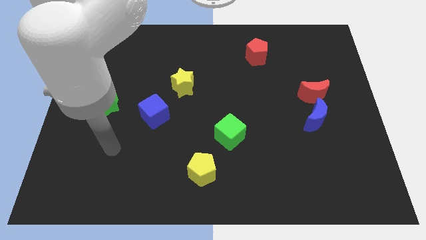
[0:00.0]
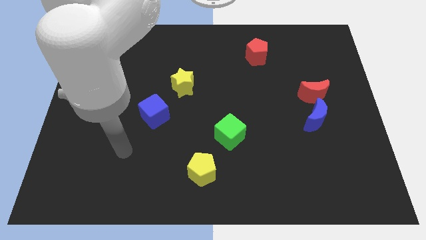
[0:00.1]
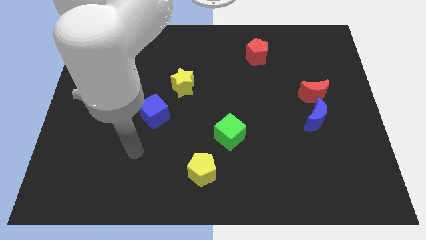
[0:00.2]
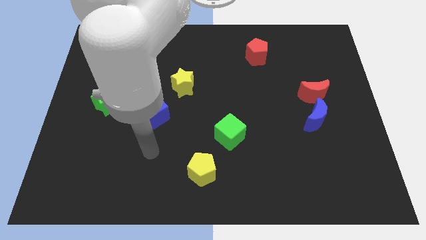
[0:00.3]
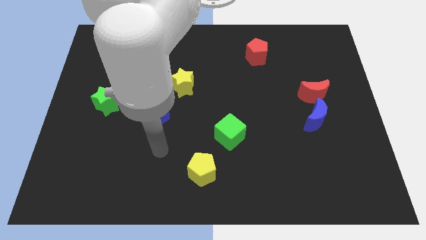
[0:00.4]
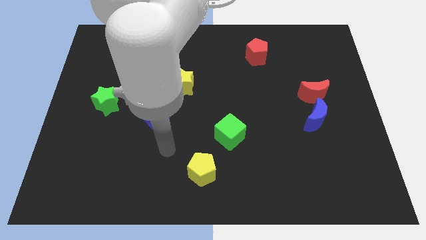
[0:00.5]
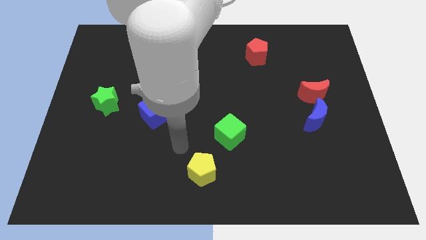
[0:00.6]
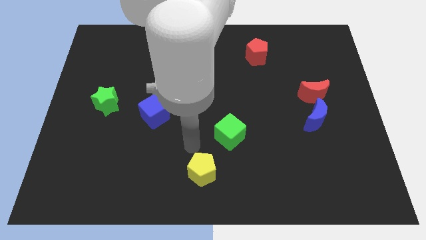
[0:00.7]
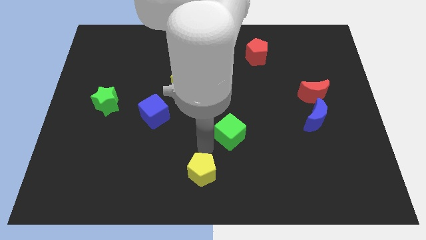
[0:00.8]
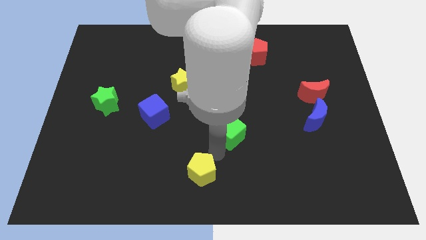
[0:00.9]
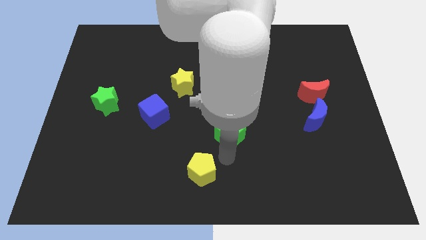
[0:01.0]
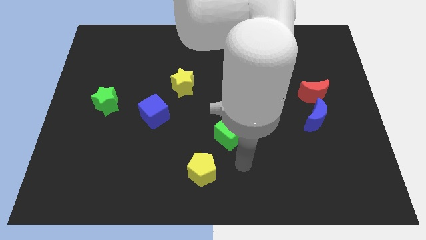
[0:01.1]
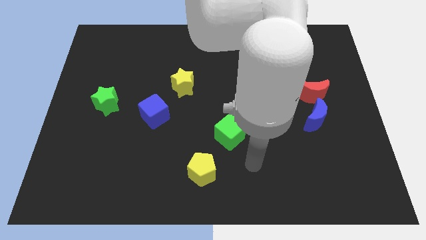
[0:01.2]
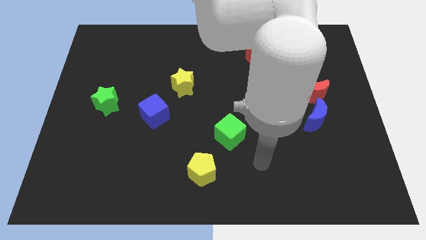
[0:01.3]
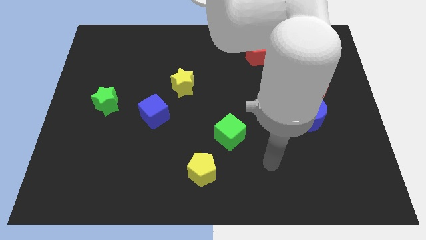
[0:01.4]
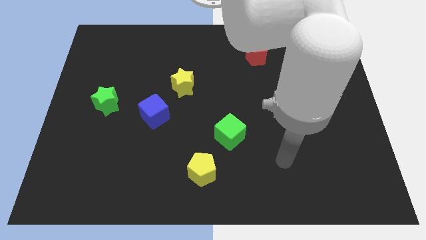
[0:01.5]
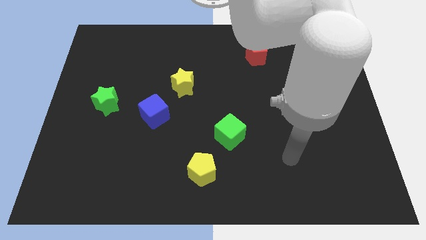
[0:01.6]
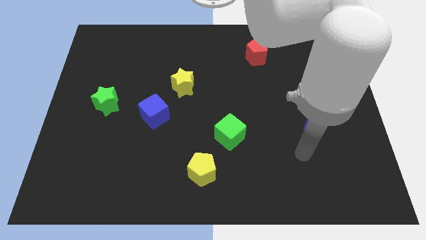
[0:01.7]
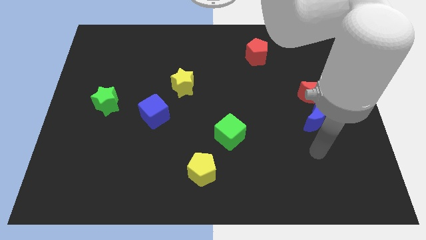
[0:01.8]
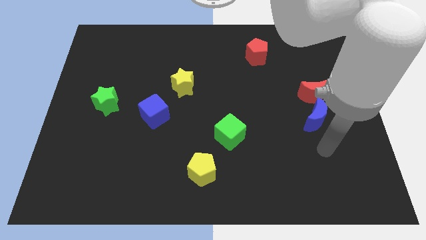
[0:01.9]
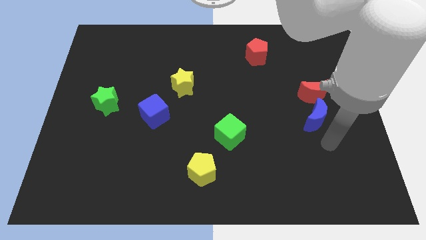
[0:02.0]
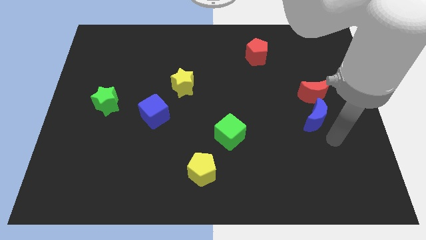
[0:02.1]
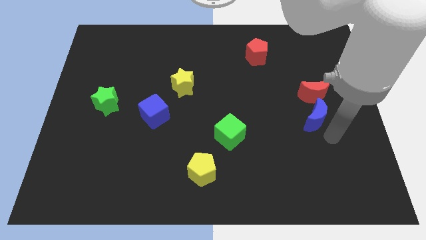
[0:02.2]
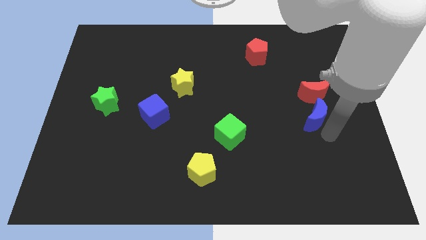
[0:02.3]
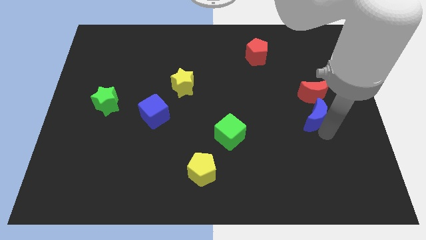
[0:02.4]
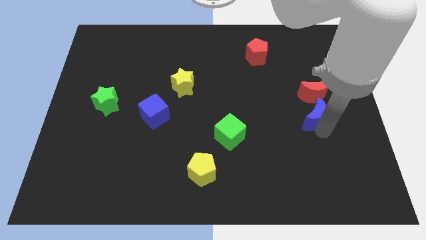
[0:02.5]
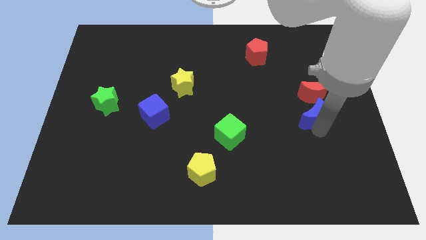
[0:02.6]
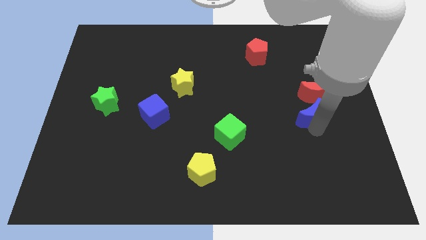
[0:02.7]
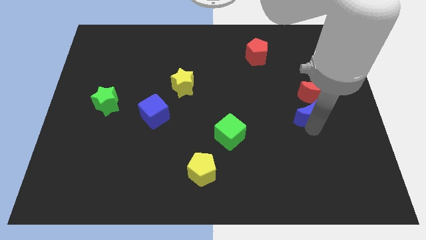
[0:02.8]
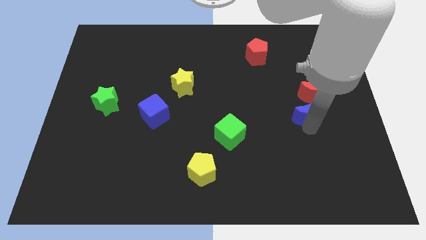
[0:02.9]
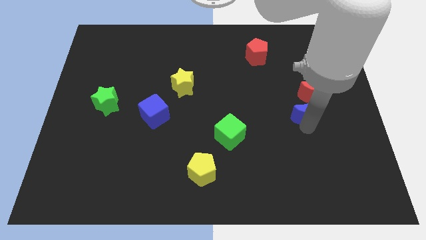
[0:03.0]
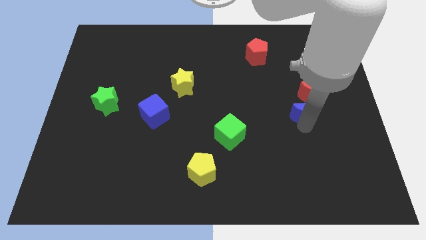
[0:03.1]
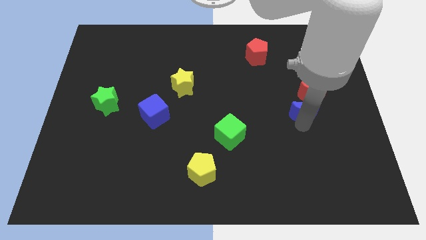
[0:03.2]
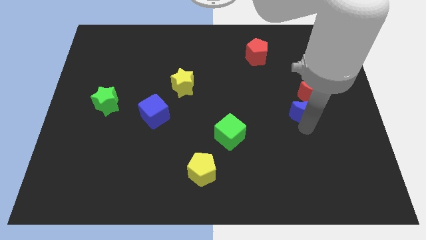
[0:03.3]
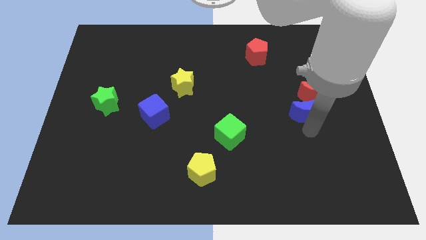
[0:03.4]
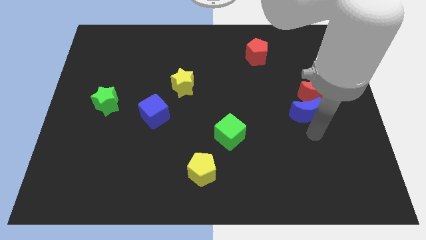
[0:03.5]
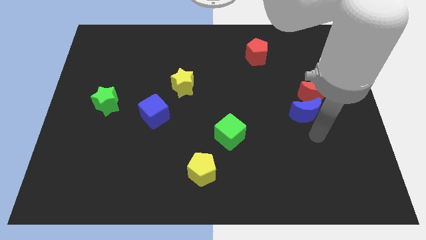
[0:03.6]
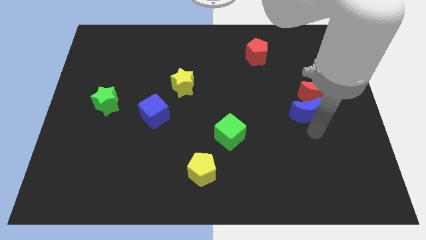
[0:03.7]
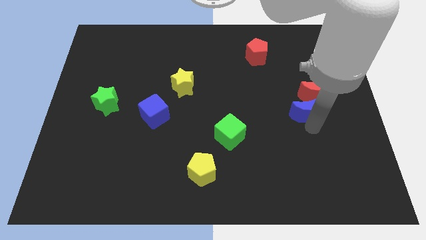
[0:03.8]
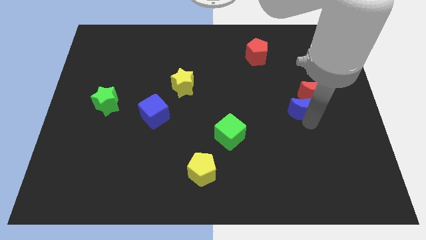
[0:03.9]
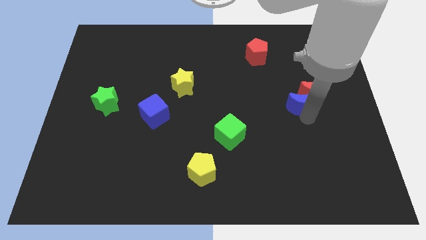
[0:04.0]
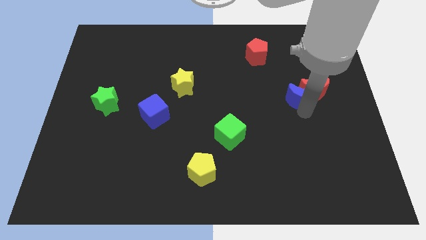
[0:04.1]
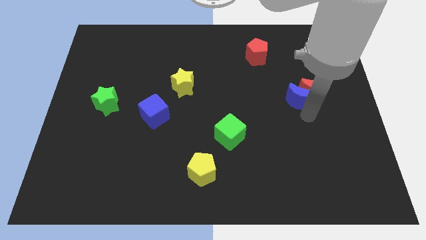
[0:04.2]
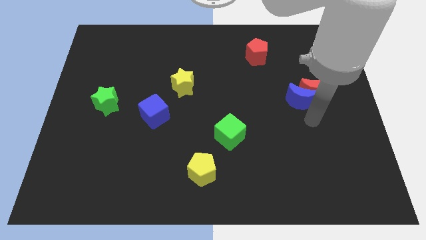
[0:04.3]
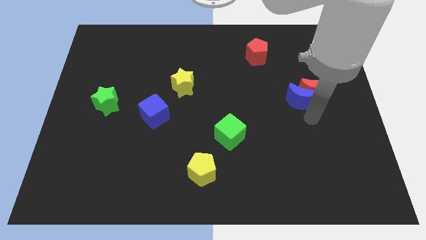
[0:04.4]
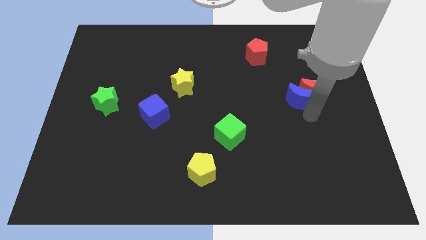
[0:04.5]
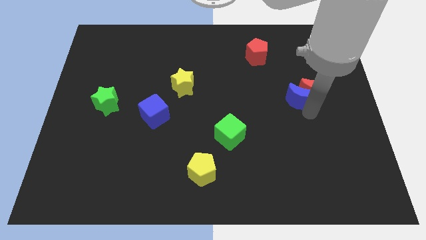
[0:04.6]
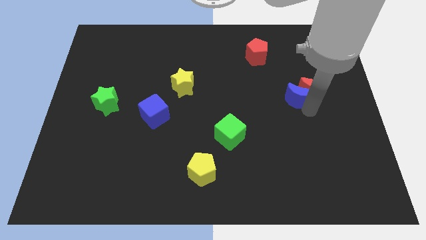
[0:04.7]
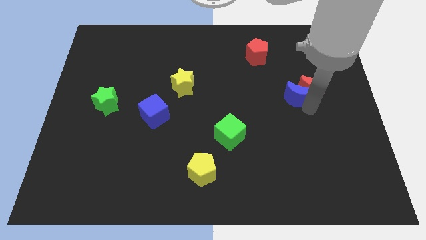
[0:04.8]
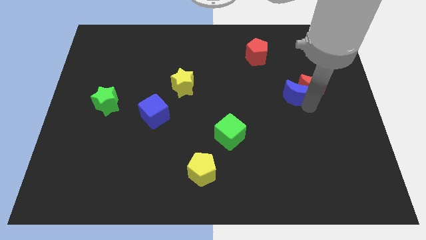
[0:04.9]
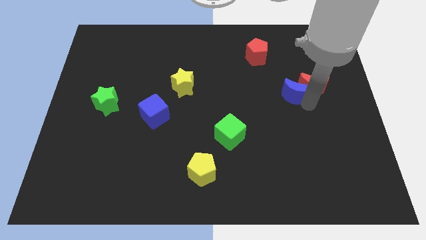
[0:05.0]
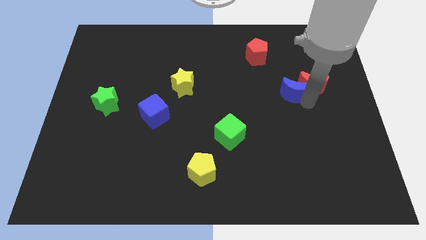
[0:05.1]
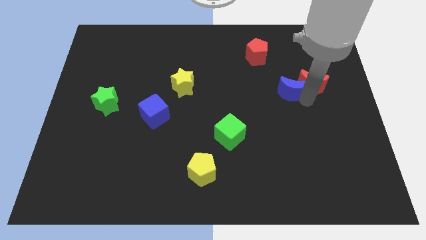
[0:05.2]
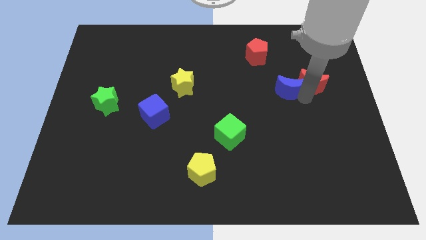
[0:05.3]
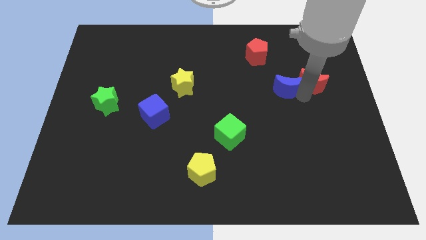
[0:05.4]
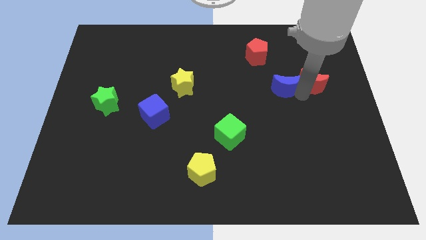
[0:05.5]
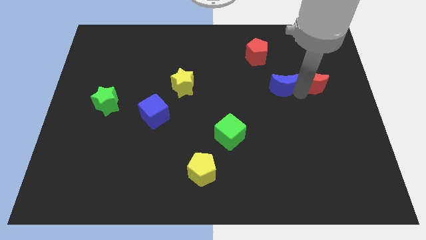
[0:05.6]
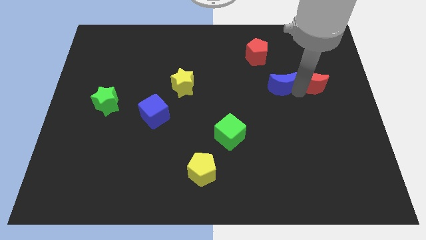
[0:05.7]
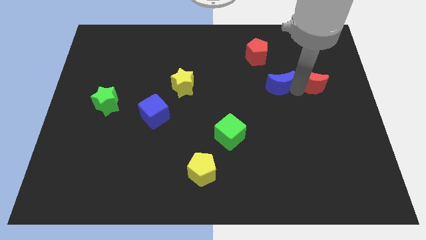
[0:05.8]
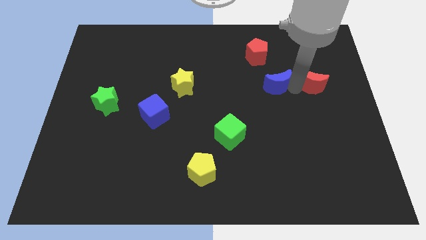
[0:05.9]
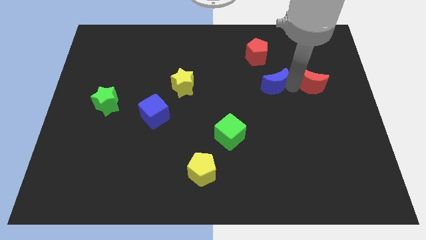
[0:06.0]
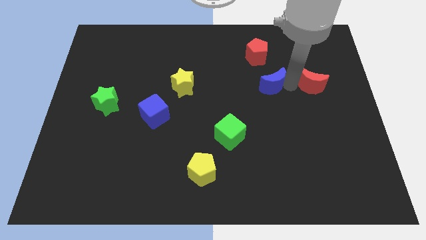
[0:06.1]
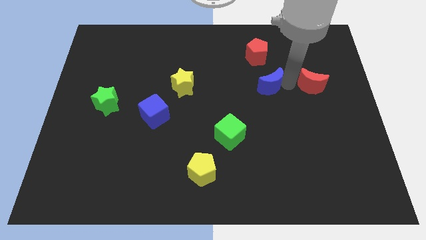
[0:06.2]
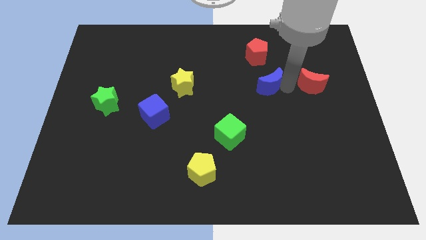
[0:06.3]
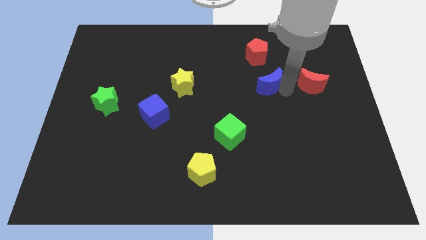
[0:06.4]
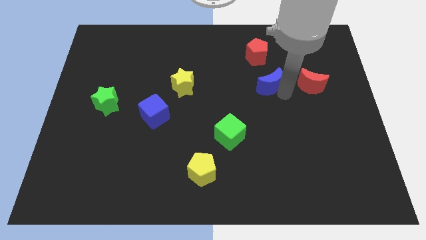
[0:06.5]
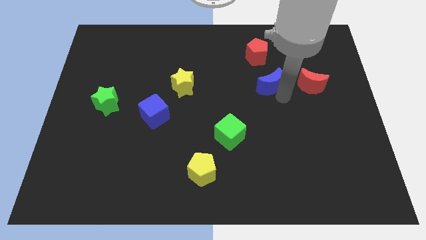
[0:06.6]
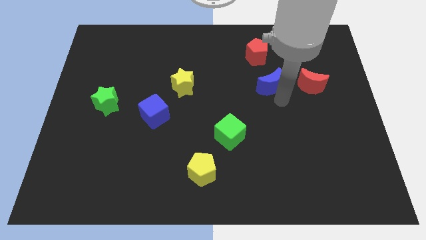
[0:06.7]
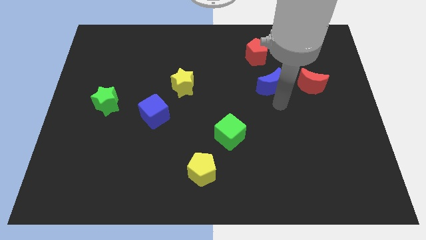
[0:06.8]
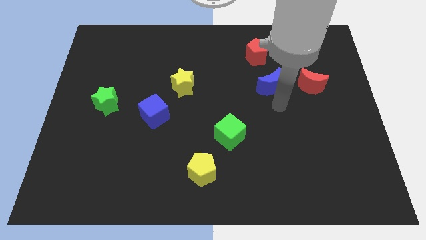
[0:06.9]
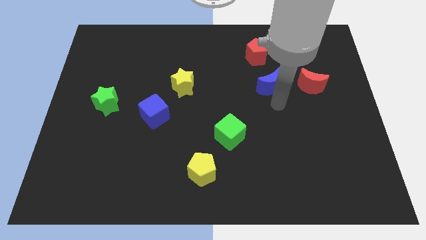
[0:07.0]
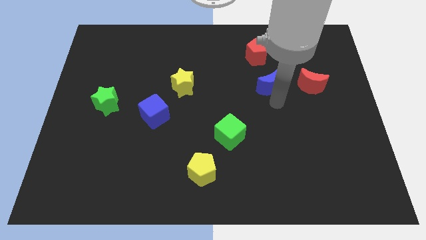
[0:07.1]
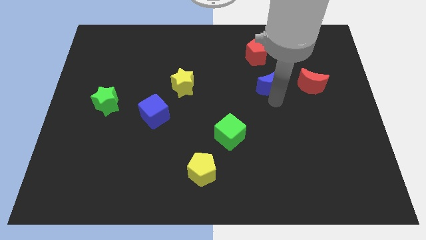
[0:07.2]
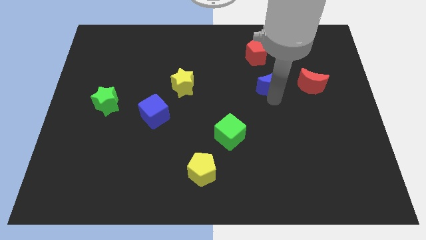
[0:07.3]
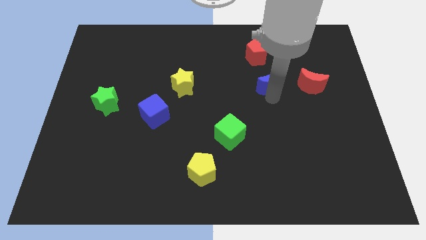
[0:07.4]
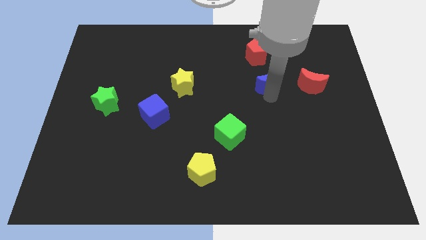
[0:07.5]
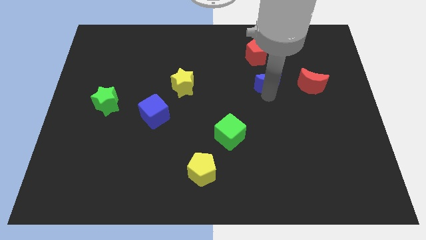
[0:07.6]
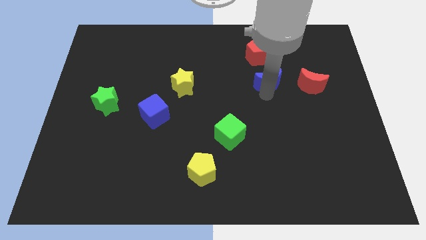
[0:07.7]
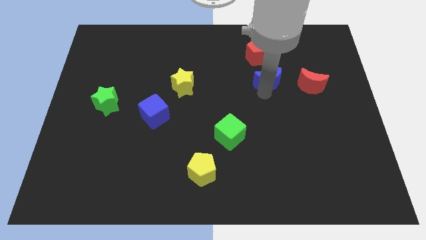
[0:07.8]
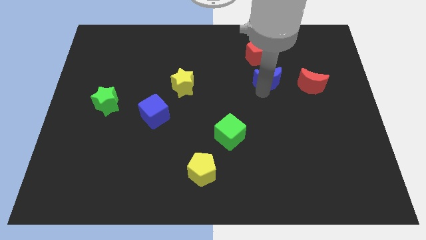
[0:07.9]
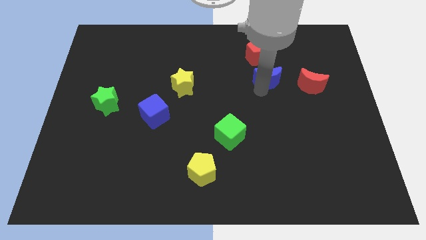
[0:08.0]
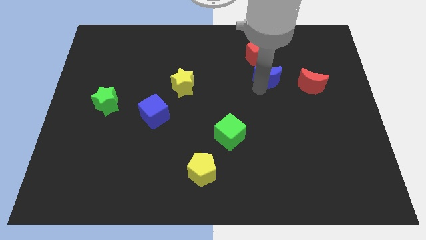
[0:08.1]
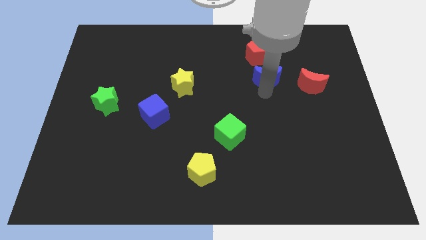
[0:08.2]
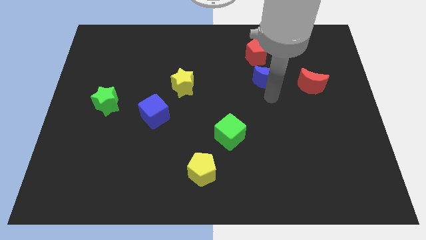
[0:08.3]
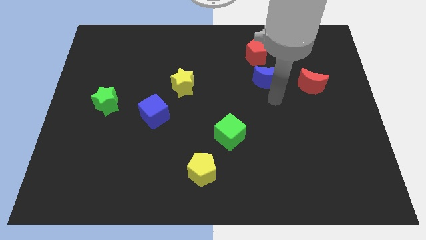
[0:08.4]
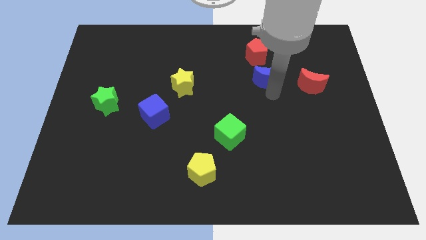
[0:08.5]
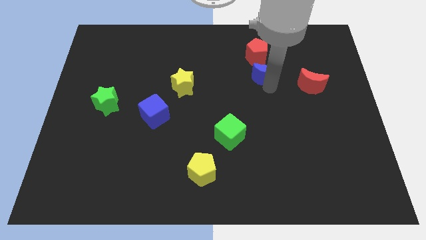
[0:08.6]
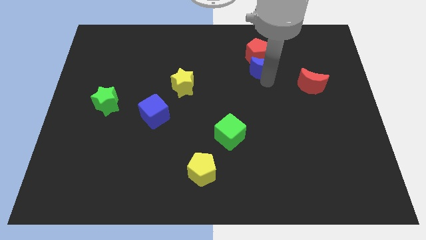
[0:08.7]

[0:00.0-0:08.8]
move the blue moon next to the red pentagon
